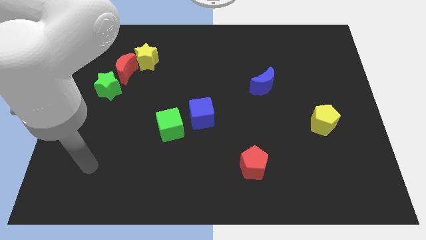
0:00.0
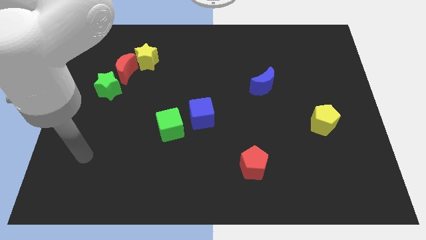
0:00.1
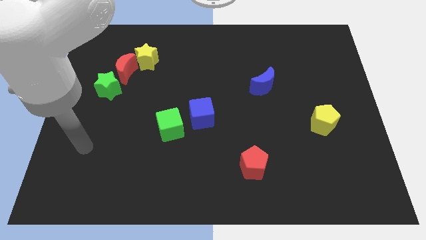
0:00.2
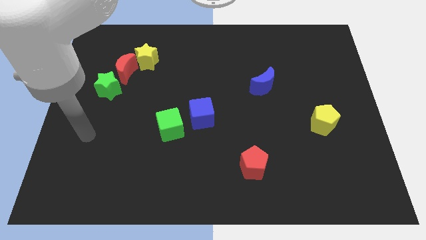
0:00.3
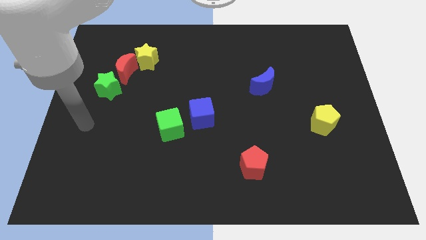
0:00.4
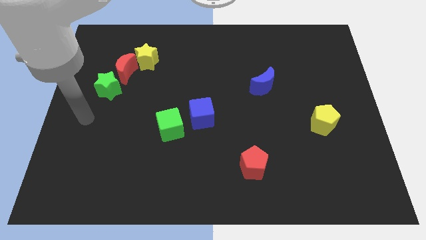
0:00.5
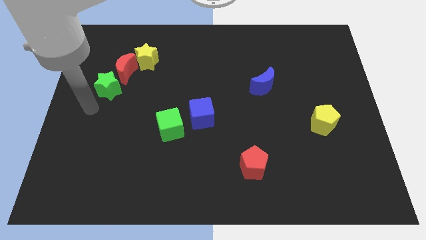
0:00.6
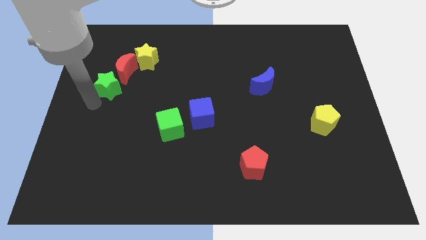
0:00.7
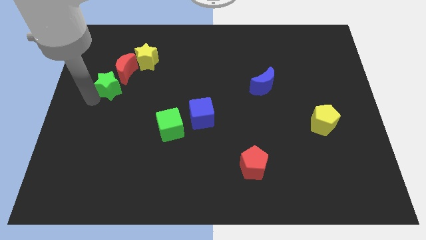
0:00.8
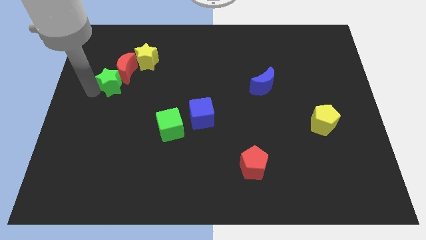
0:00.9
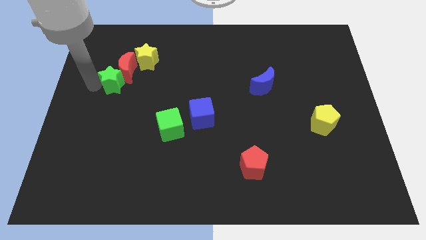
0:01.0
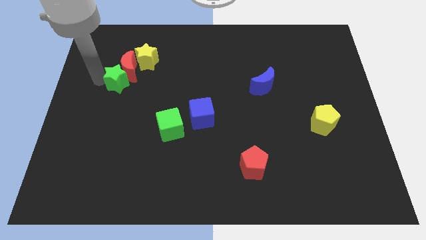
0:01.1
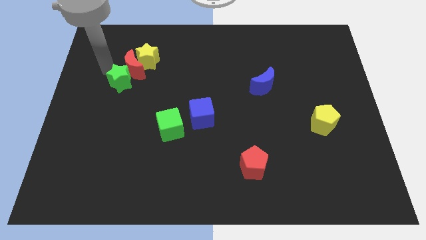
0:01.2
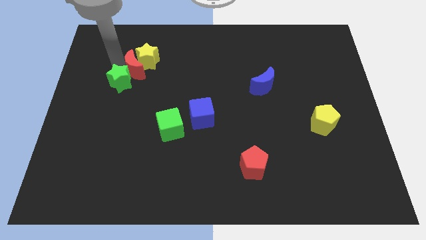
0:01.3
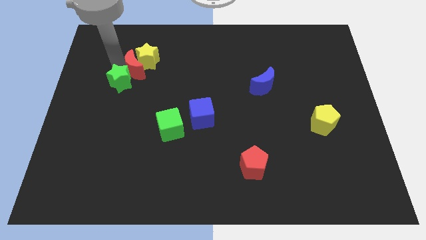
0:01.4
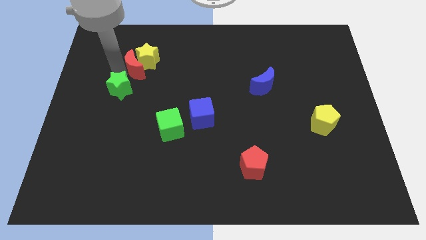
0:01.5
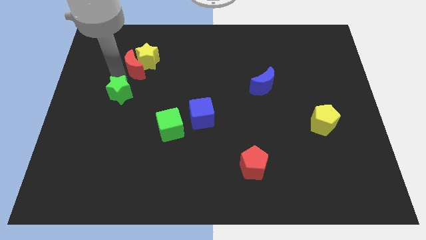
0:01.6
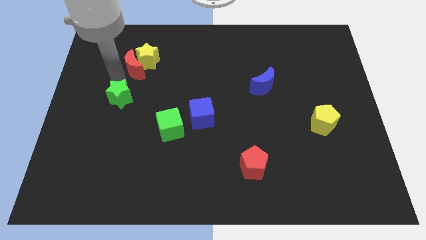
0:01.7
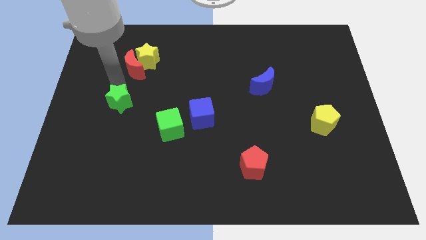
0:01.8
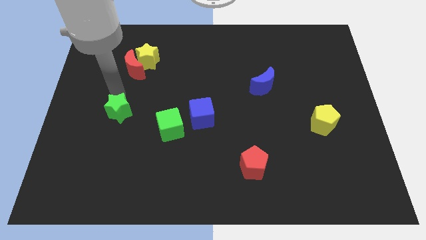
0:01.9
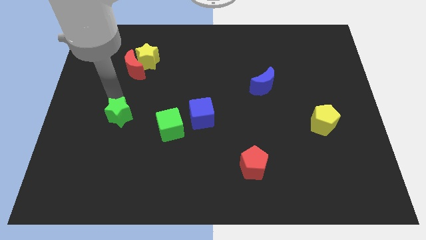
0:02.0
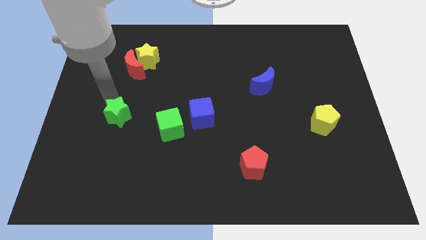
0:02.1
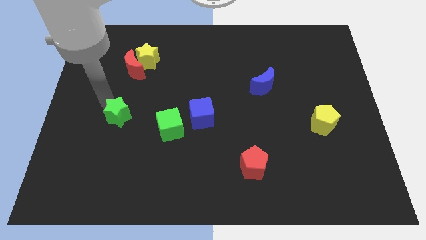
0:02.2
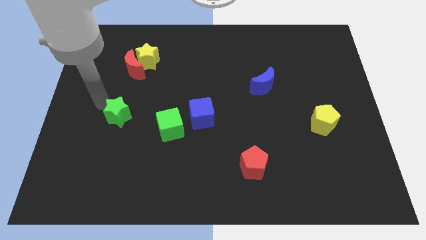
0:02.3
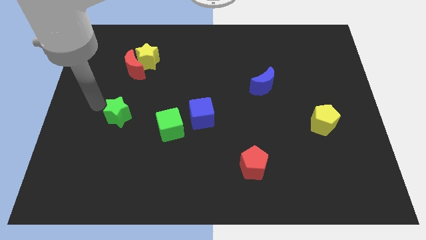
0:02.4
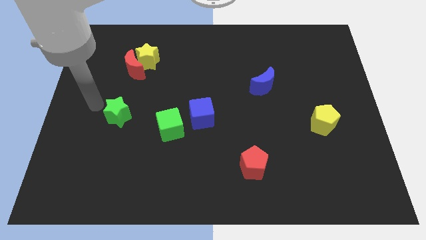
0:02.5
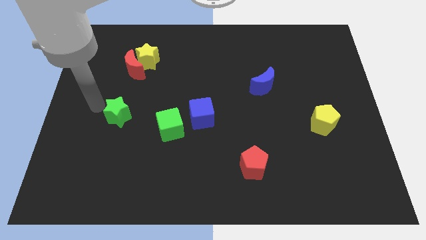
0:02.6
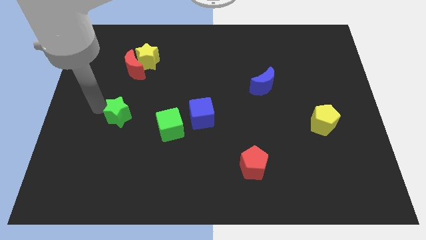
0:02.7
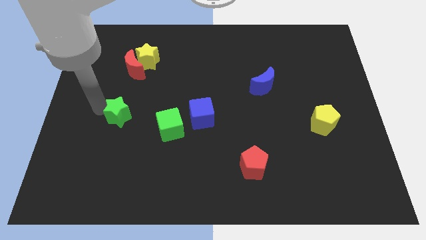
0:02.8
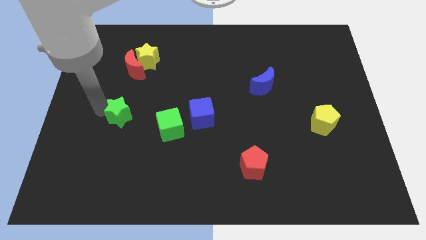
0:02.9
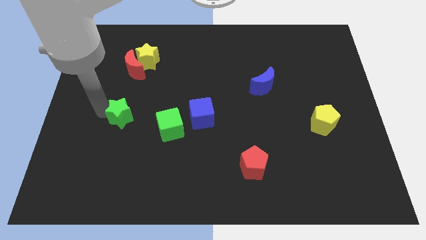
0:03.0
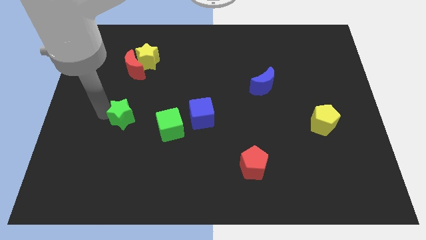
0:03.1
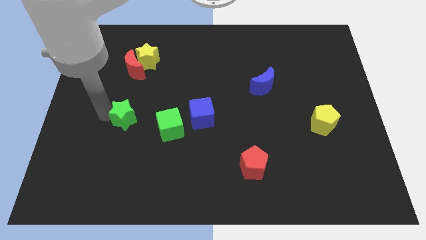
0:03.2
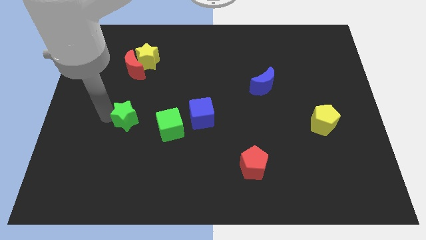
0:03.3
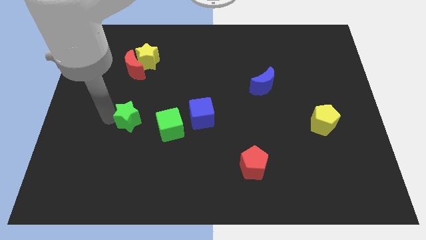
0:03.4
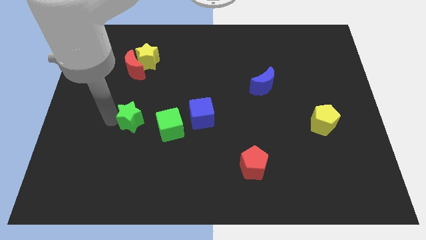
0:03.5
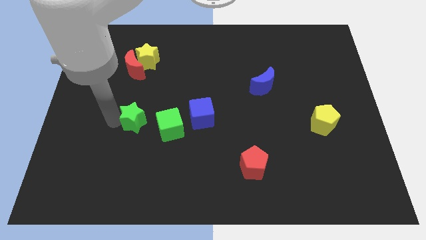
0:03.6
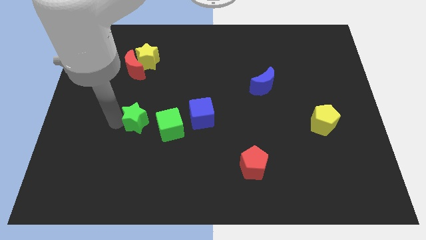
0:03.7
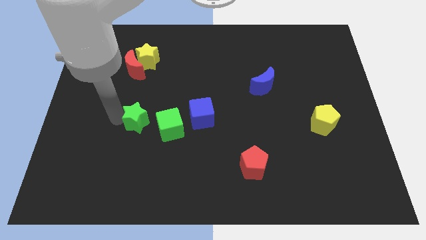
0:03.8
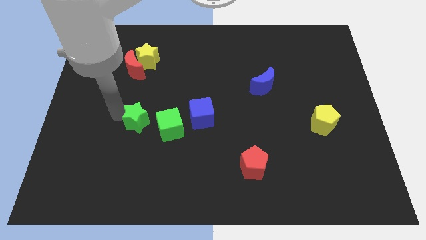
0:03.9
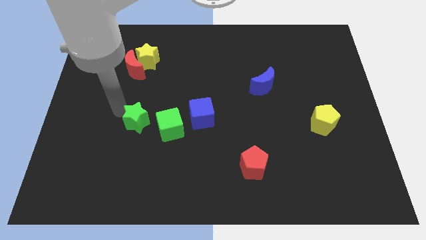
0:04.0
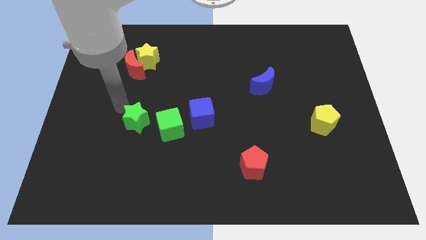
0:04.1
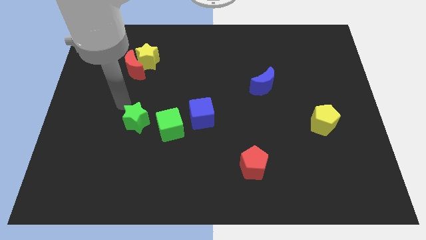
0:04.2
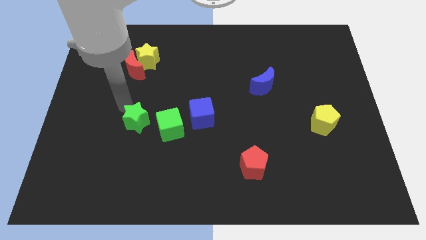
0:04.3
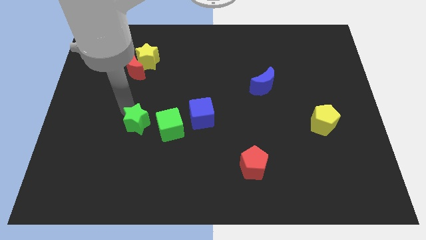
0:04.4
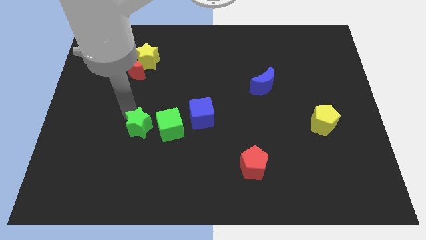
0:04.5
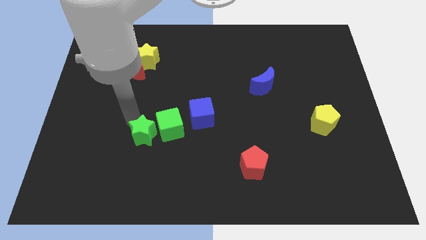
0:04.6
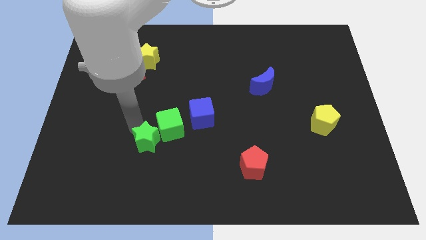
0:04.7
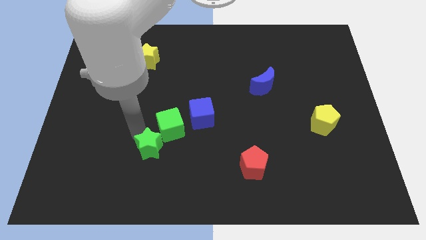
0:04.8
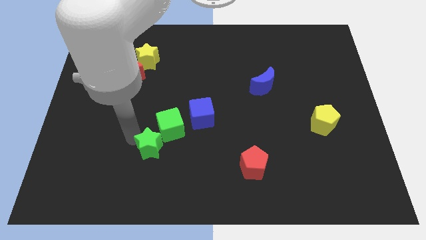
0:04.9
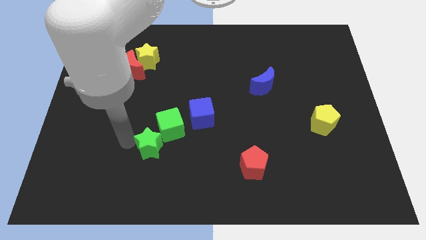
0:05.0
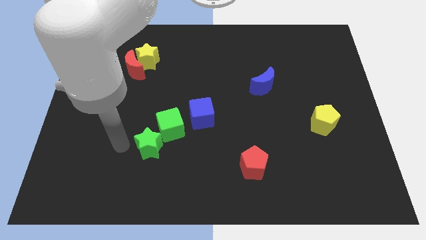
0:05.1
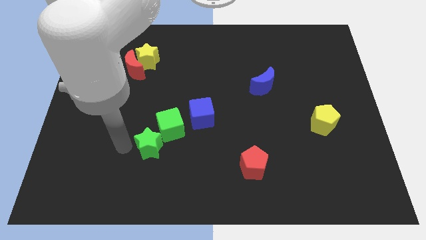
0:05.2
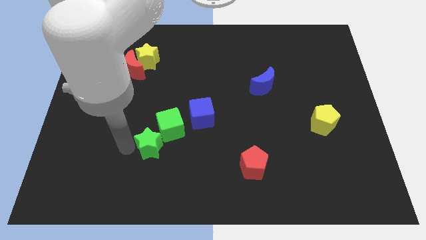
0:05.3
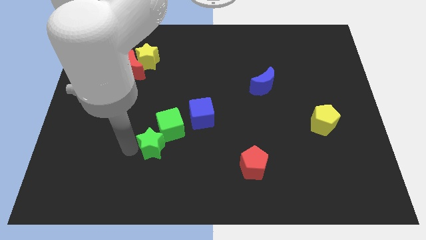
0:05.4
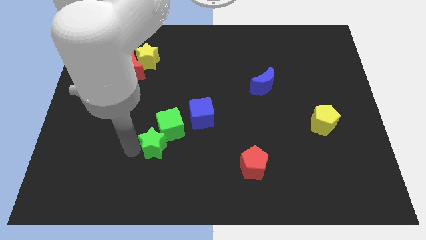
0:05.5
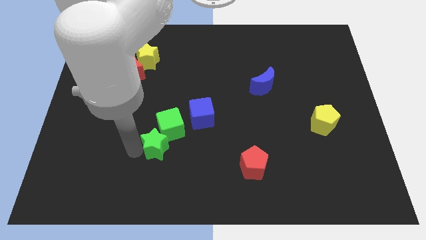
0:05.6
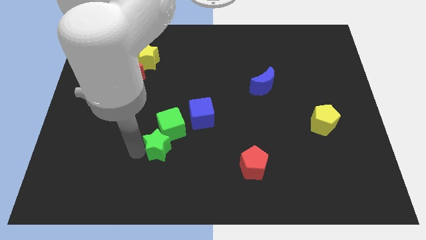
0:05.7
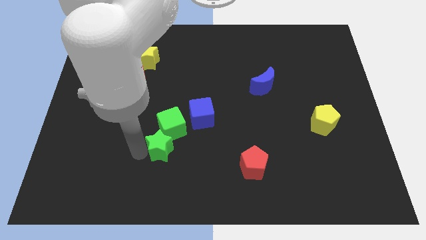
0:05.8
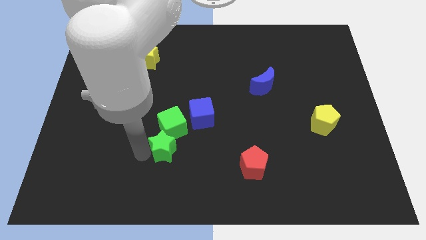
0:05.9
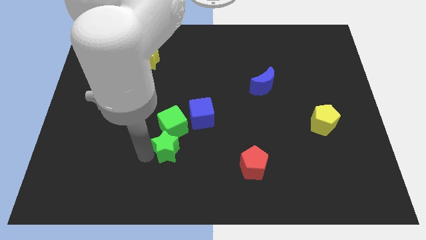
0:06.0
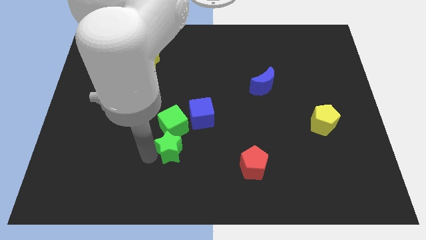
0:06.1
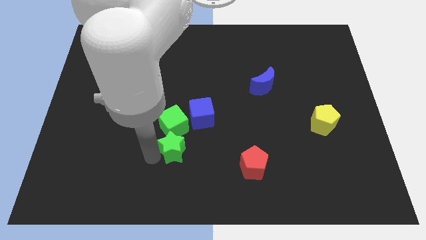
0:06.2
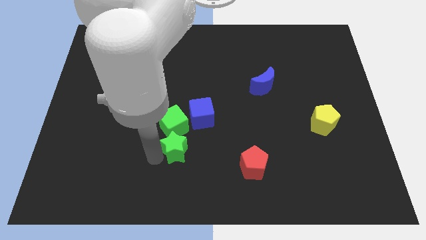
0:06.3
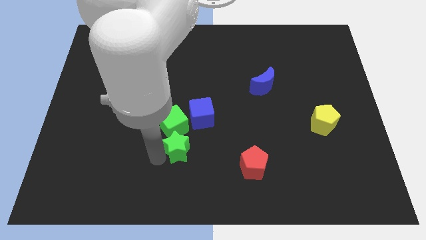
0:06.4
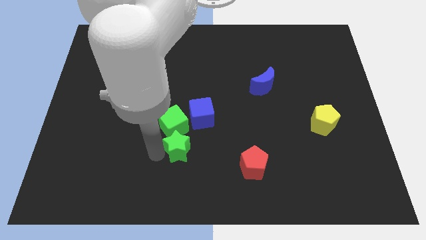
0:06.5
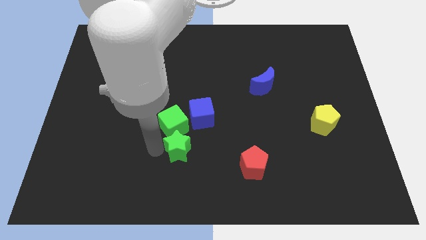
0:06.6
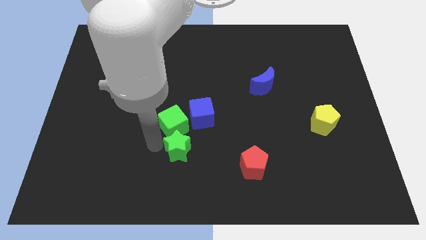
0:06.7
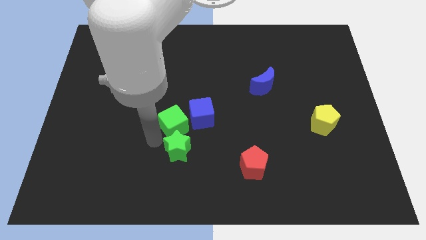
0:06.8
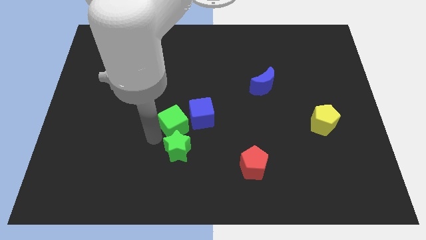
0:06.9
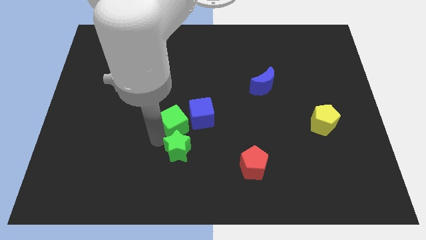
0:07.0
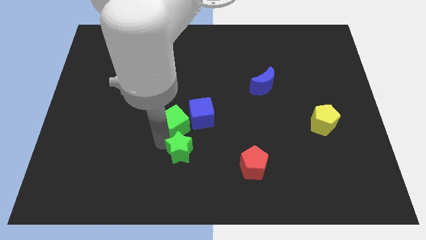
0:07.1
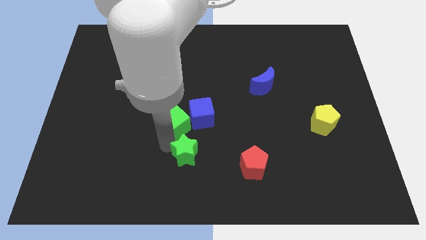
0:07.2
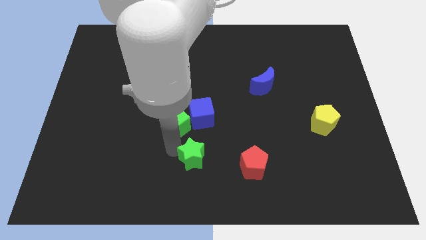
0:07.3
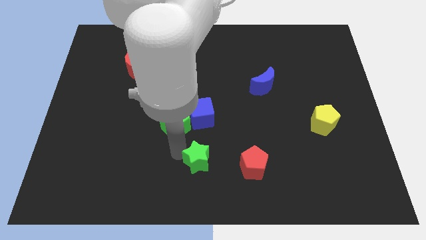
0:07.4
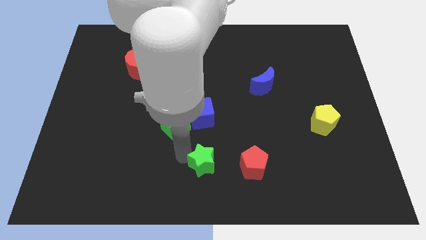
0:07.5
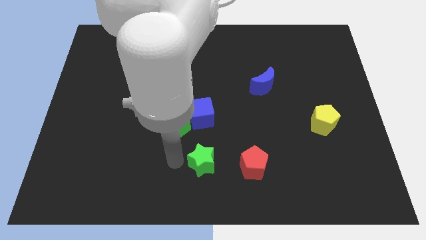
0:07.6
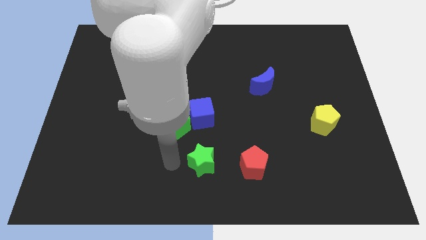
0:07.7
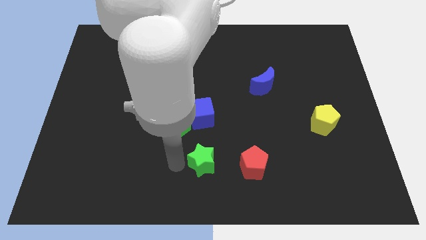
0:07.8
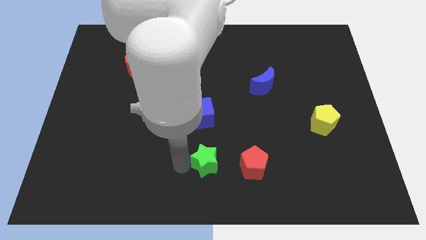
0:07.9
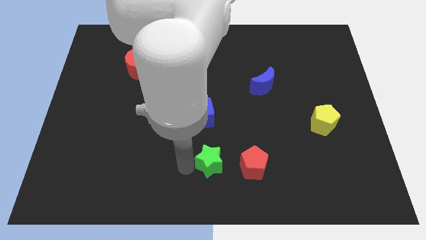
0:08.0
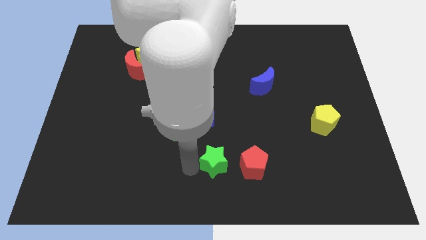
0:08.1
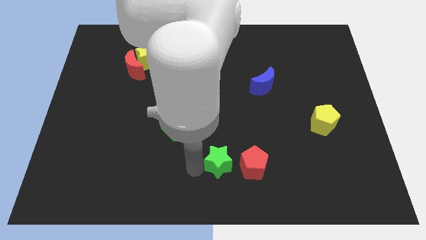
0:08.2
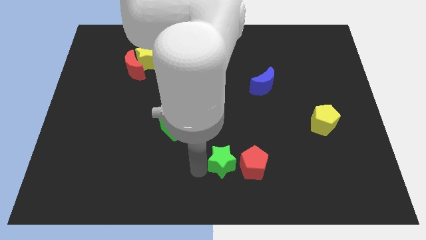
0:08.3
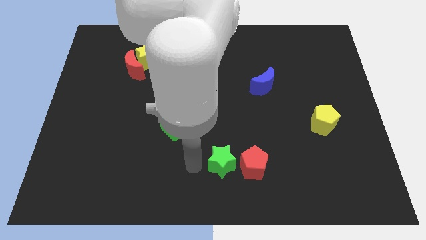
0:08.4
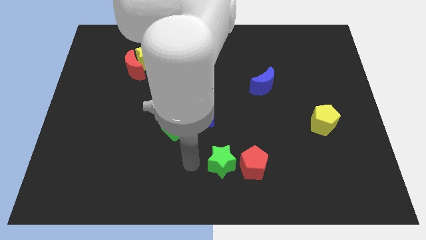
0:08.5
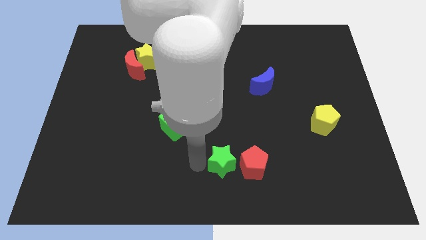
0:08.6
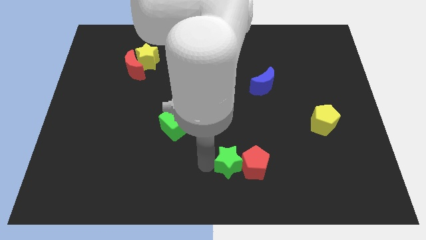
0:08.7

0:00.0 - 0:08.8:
move the green star to the red pentagon
